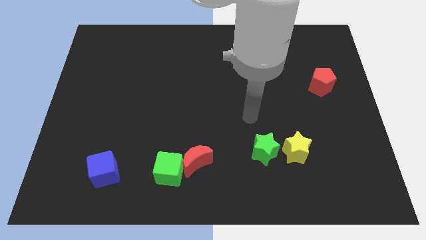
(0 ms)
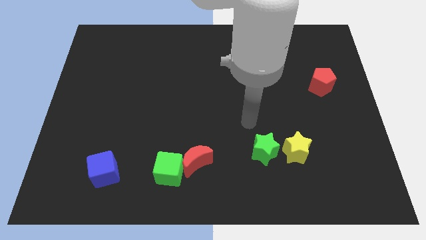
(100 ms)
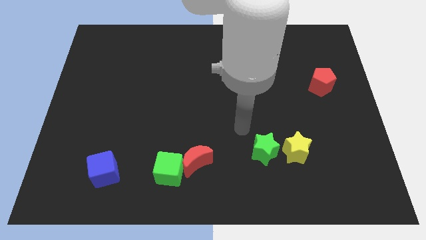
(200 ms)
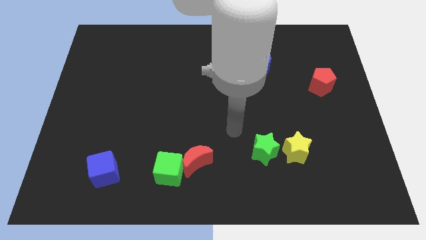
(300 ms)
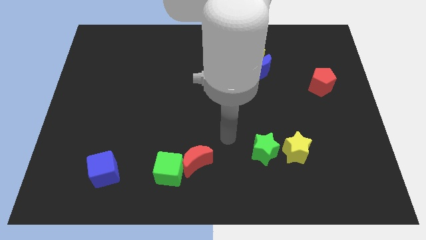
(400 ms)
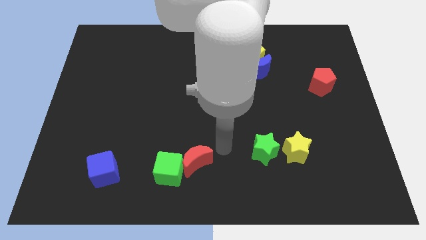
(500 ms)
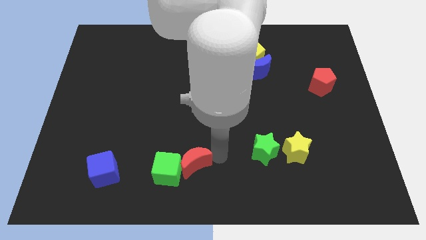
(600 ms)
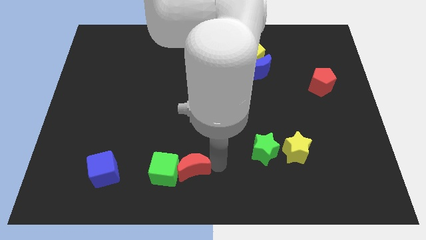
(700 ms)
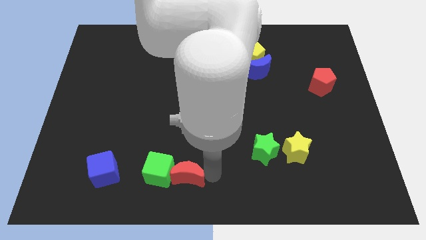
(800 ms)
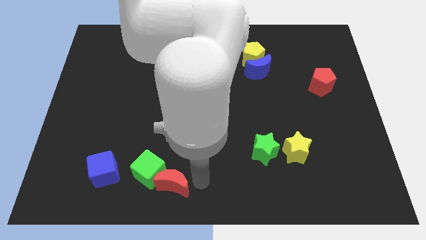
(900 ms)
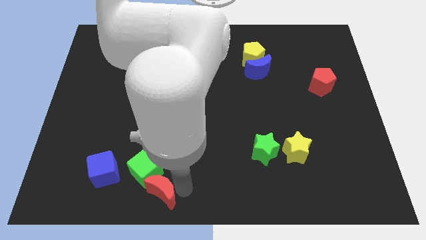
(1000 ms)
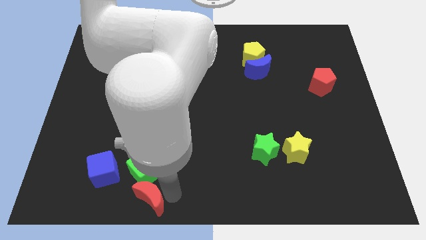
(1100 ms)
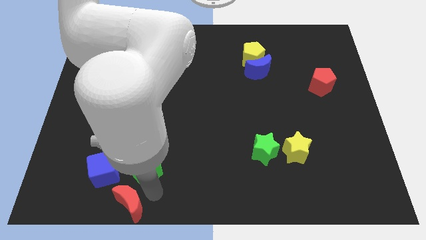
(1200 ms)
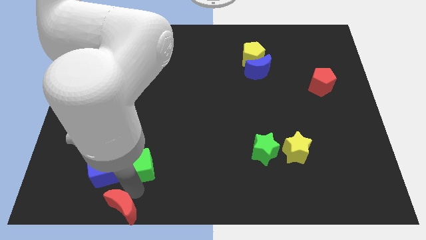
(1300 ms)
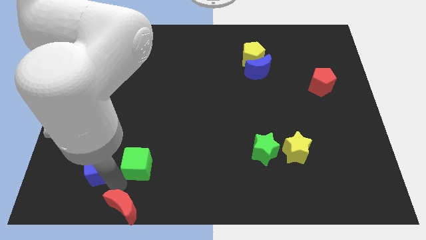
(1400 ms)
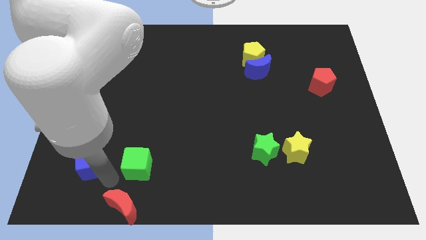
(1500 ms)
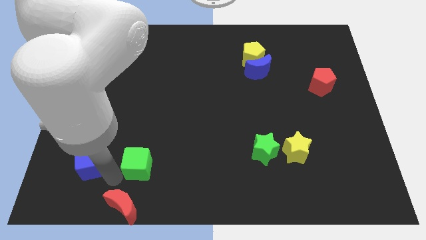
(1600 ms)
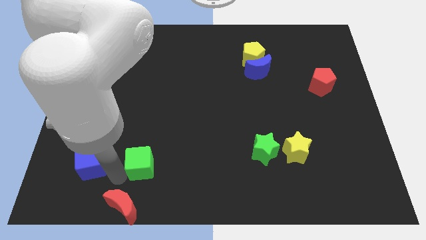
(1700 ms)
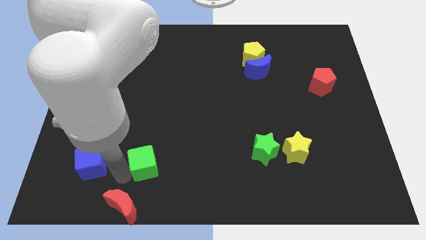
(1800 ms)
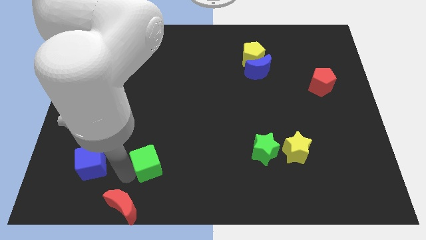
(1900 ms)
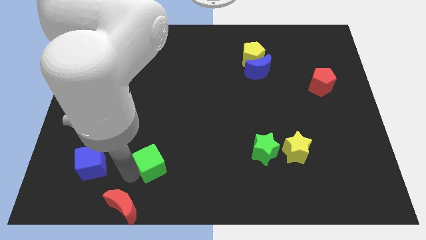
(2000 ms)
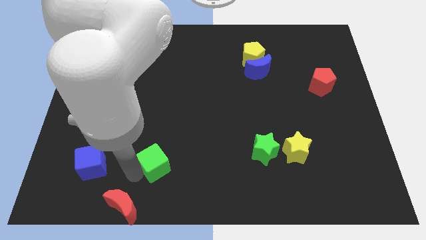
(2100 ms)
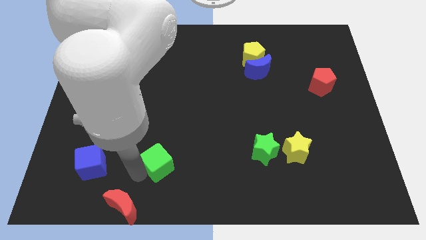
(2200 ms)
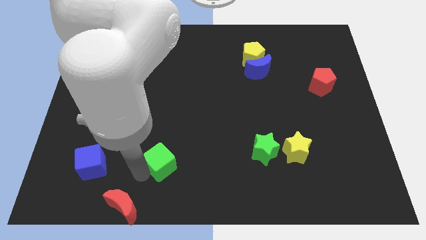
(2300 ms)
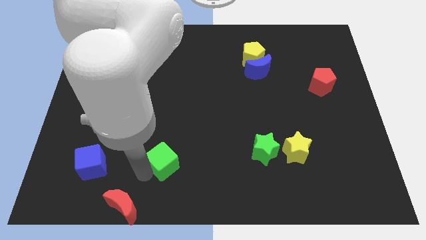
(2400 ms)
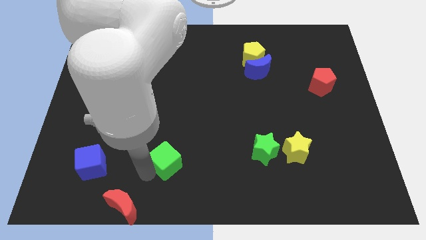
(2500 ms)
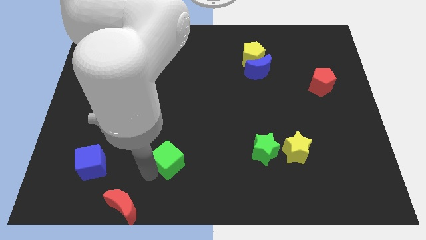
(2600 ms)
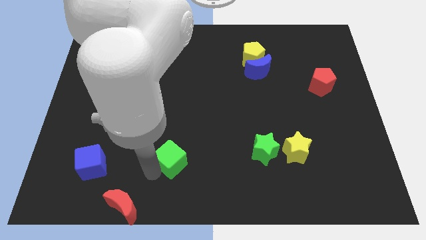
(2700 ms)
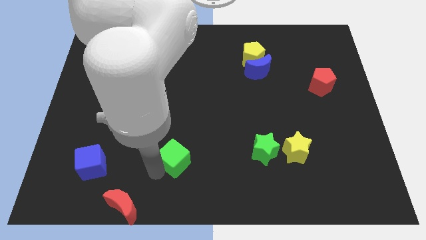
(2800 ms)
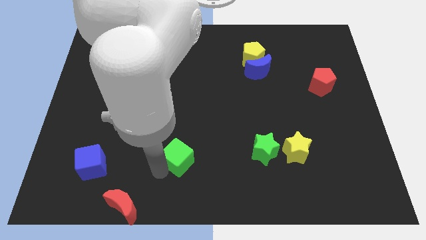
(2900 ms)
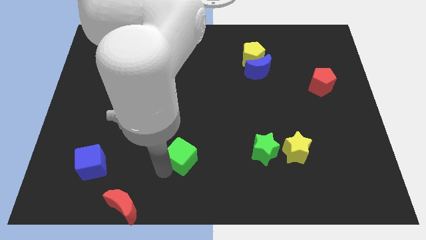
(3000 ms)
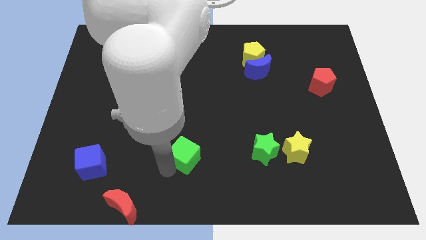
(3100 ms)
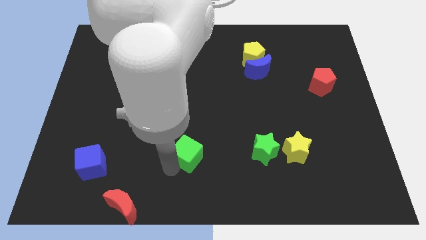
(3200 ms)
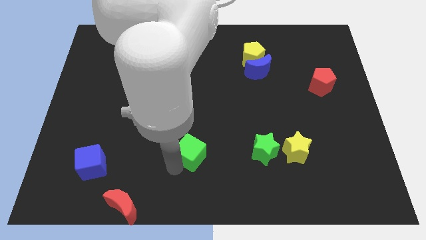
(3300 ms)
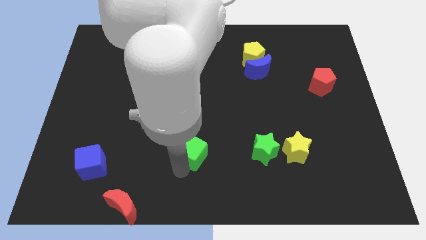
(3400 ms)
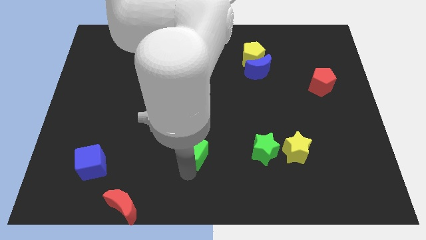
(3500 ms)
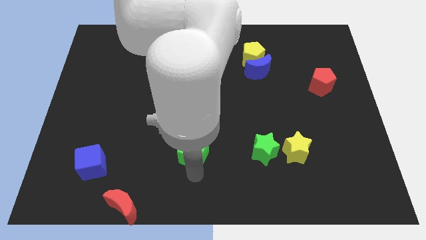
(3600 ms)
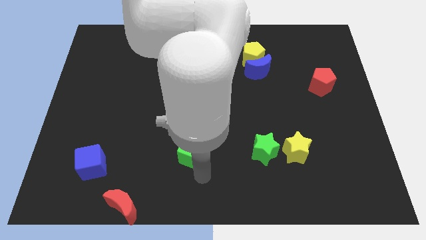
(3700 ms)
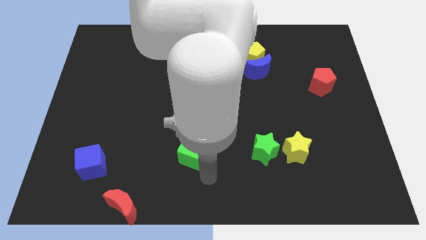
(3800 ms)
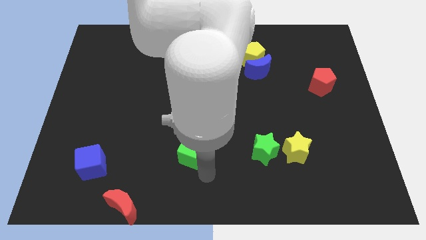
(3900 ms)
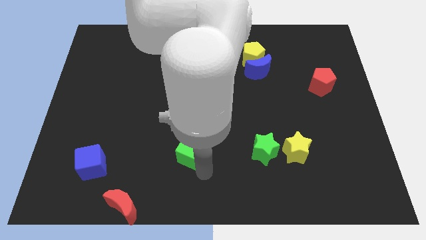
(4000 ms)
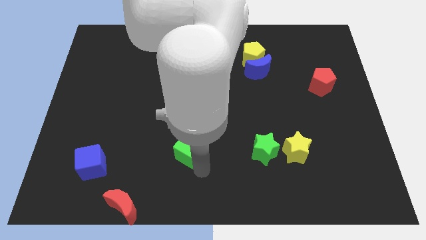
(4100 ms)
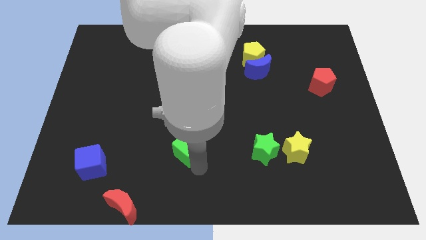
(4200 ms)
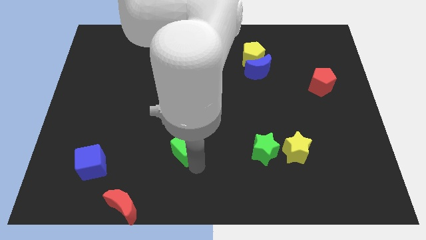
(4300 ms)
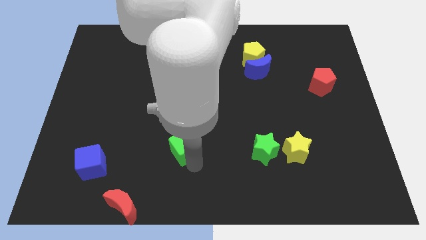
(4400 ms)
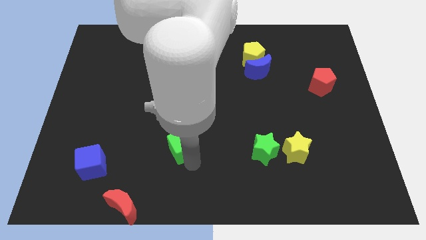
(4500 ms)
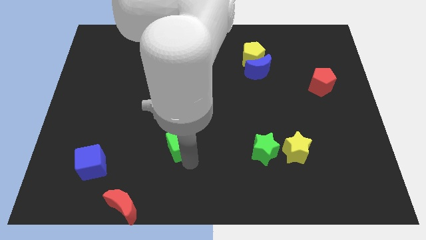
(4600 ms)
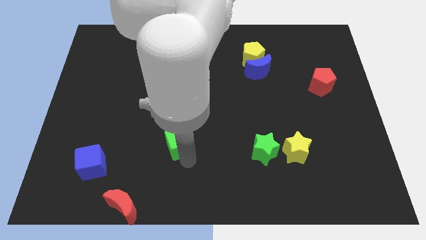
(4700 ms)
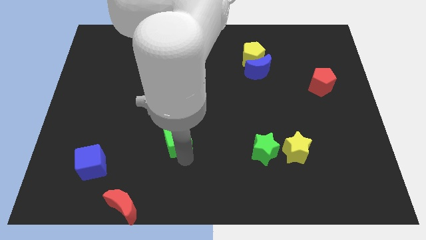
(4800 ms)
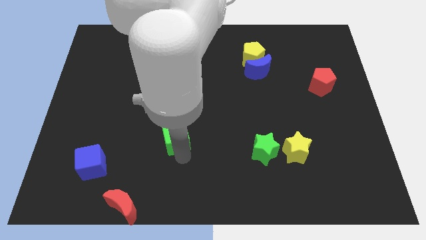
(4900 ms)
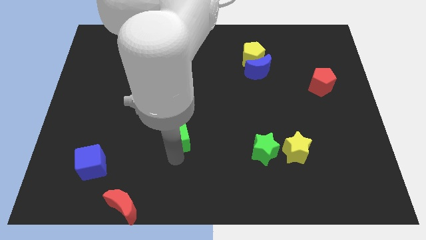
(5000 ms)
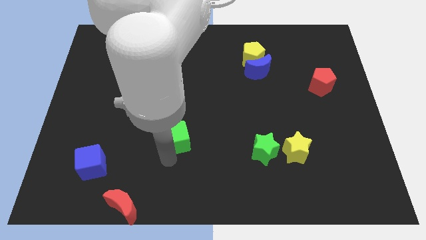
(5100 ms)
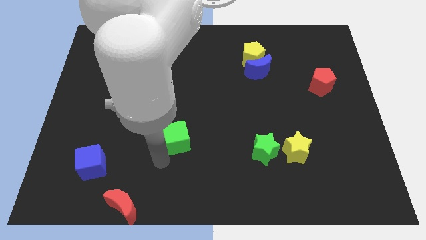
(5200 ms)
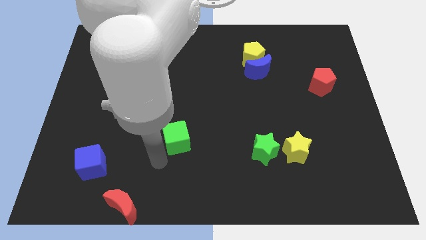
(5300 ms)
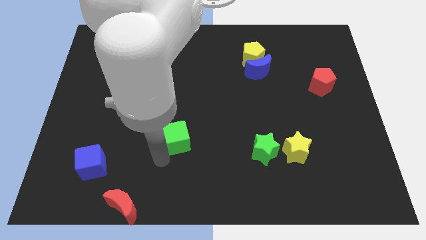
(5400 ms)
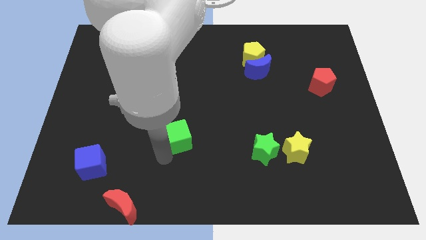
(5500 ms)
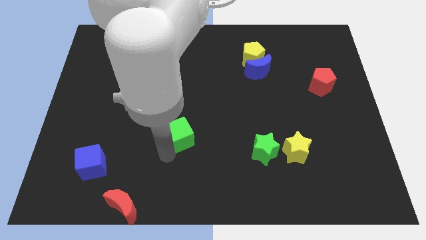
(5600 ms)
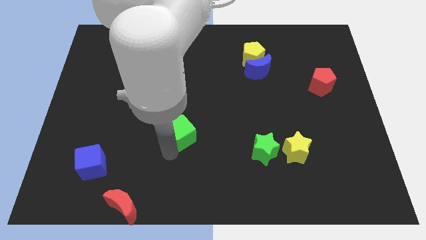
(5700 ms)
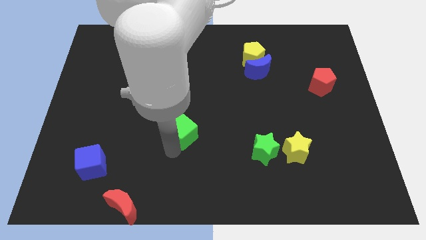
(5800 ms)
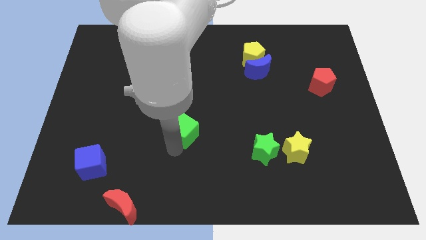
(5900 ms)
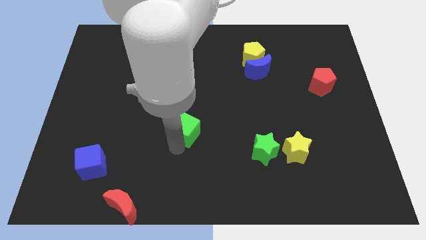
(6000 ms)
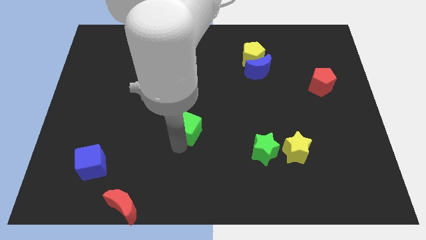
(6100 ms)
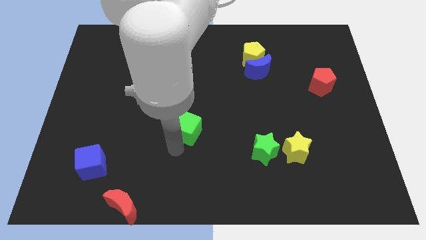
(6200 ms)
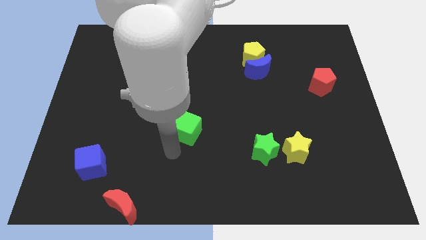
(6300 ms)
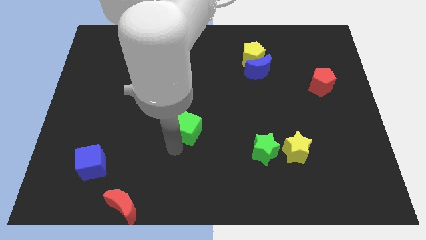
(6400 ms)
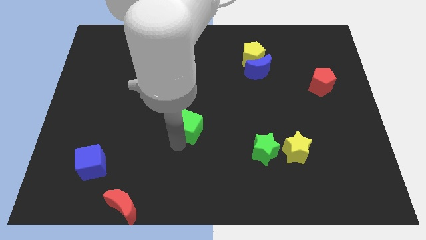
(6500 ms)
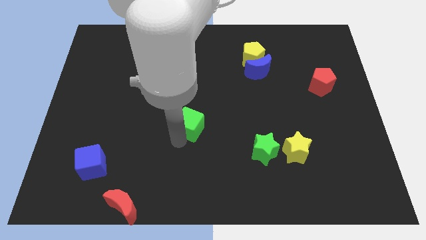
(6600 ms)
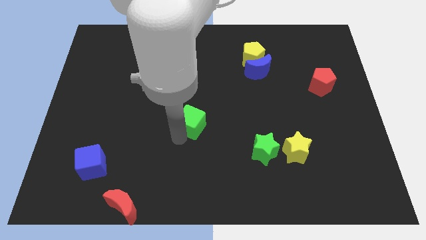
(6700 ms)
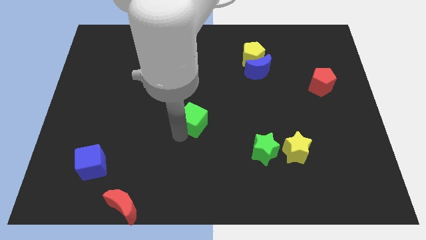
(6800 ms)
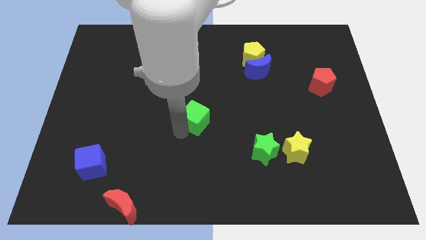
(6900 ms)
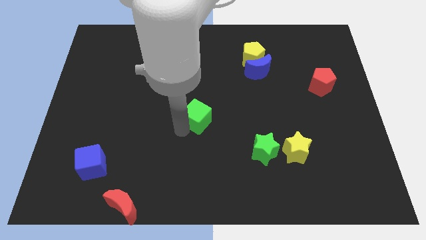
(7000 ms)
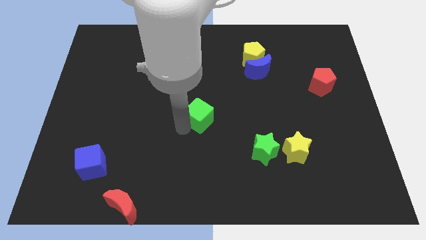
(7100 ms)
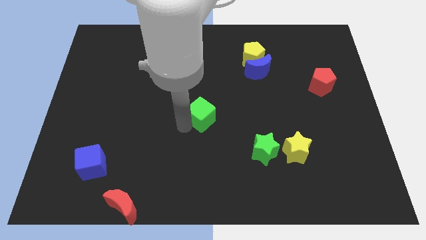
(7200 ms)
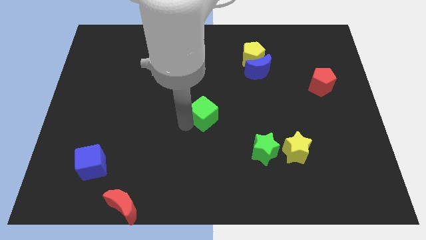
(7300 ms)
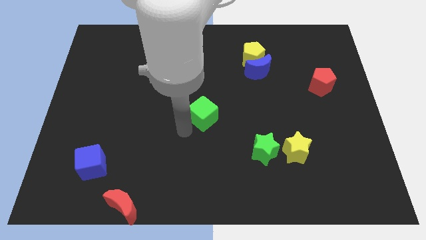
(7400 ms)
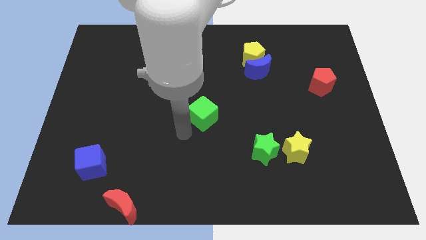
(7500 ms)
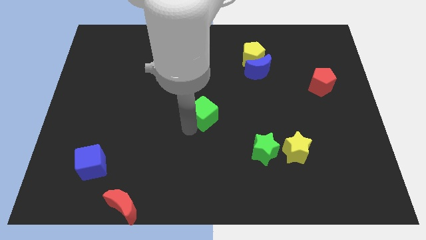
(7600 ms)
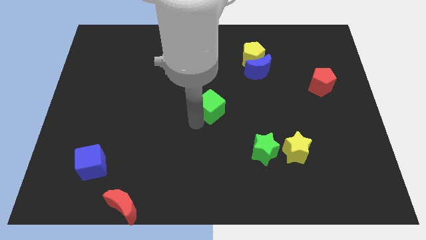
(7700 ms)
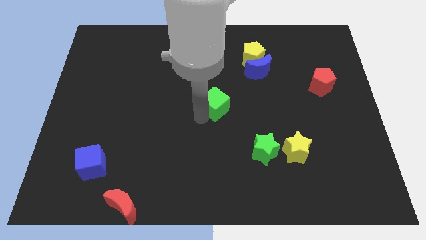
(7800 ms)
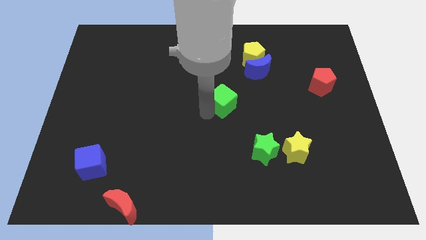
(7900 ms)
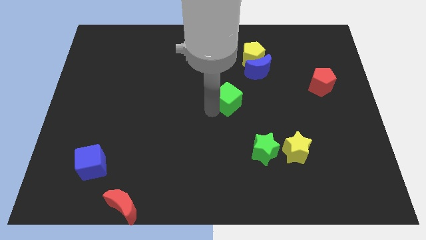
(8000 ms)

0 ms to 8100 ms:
slide the green cube to the bottom left of the blue moon

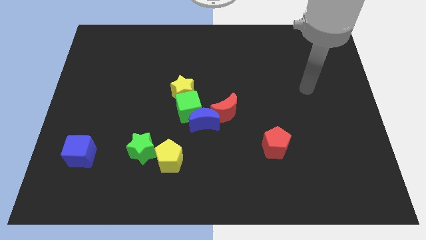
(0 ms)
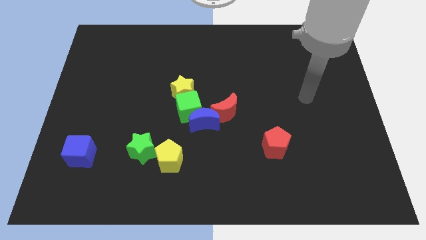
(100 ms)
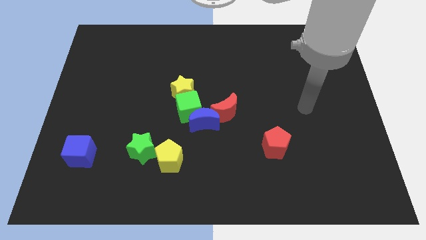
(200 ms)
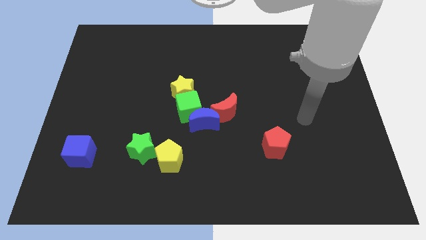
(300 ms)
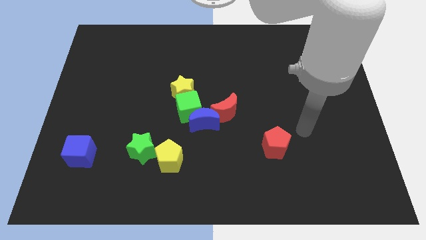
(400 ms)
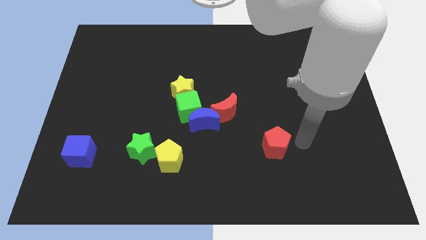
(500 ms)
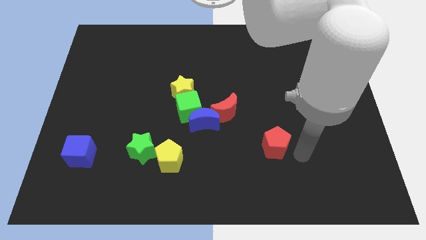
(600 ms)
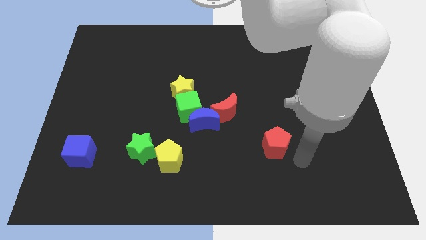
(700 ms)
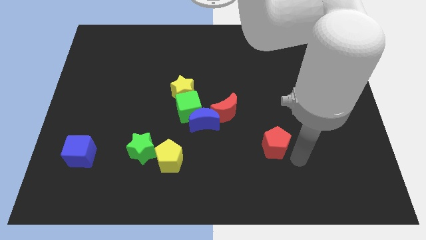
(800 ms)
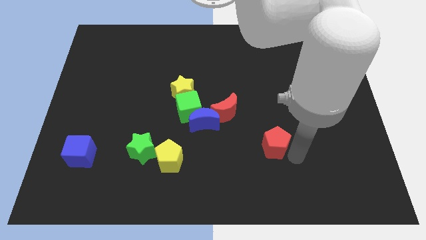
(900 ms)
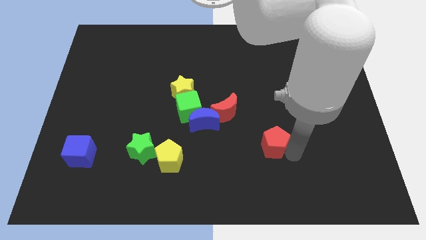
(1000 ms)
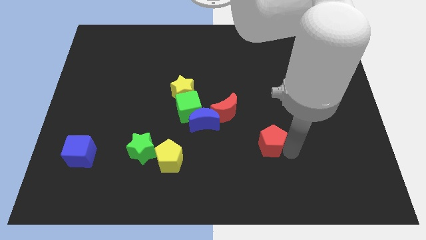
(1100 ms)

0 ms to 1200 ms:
move the red pentagon diagonally down and to the right of the red moon
